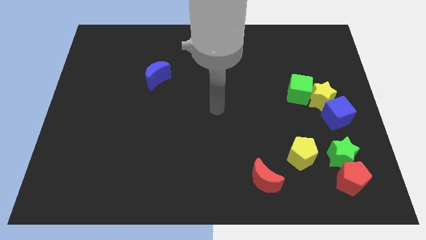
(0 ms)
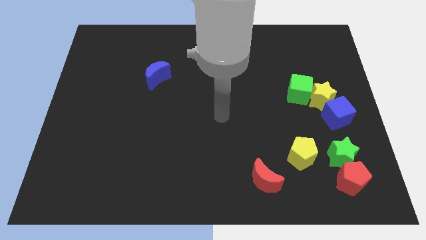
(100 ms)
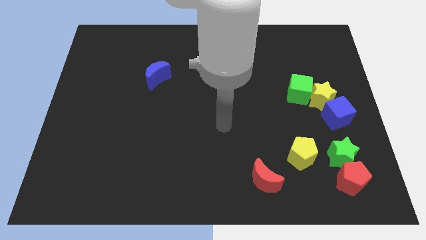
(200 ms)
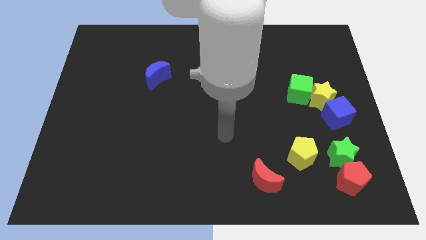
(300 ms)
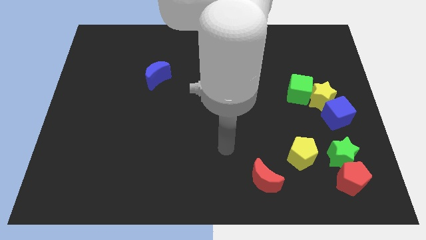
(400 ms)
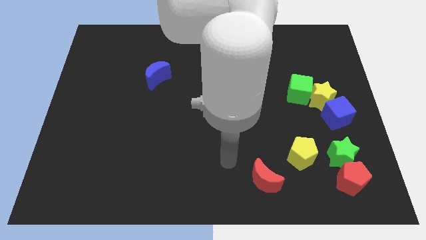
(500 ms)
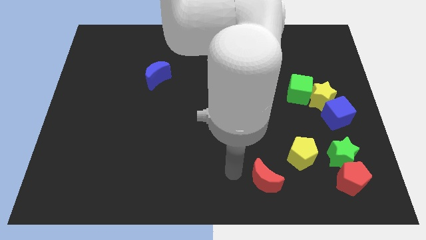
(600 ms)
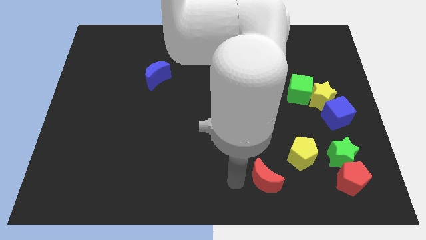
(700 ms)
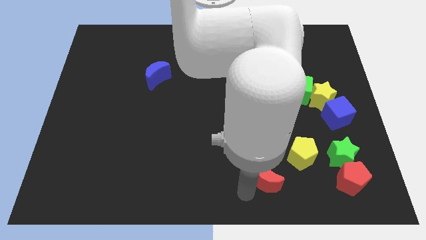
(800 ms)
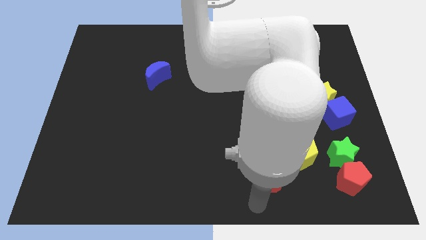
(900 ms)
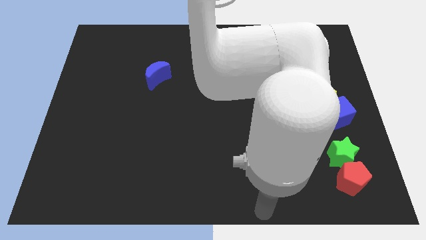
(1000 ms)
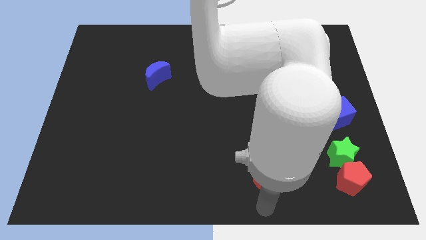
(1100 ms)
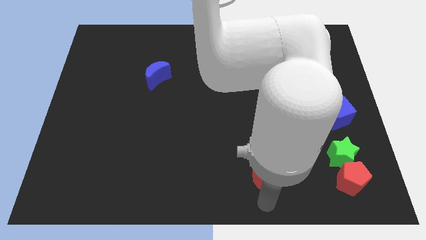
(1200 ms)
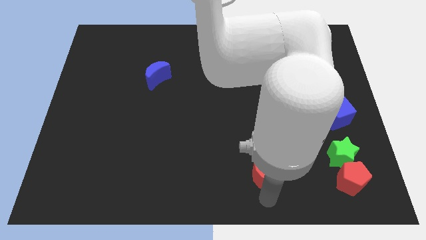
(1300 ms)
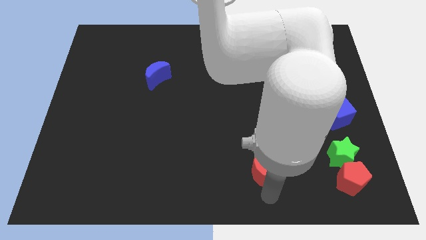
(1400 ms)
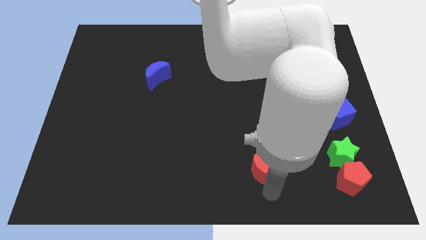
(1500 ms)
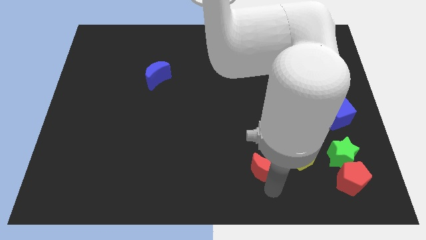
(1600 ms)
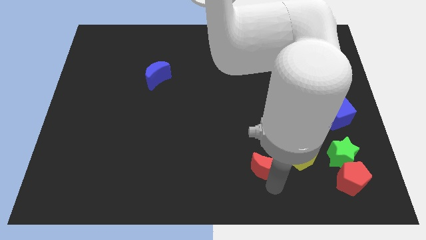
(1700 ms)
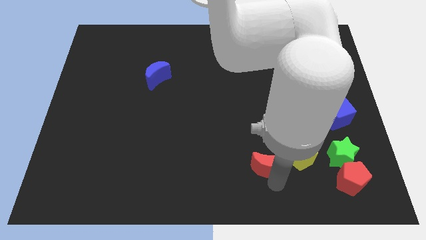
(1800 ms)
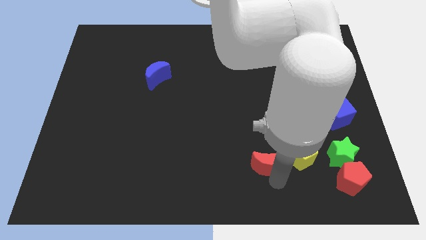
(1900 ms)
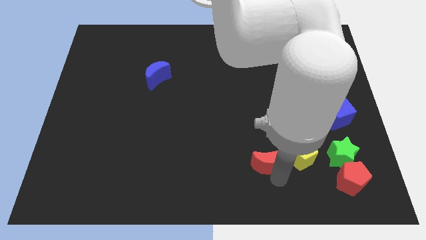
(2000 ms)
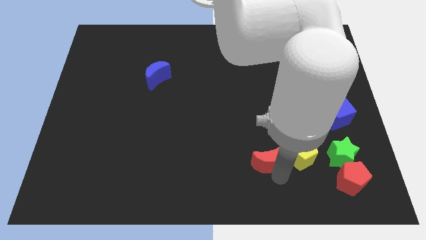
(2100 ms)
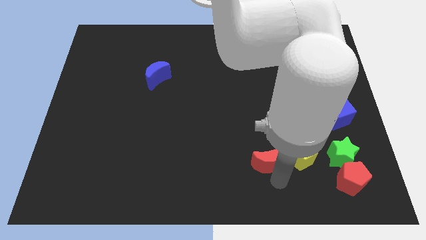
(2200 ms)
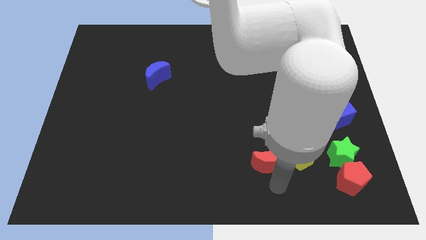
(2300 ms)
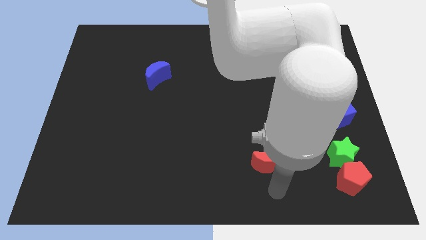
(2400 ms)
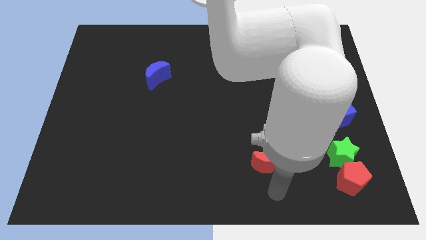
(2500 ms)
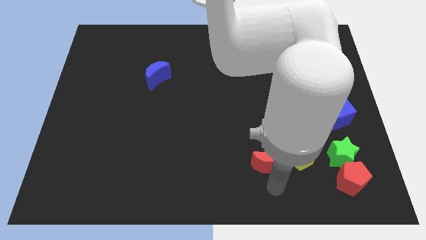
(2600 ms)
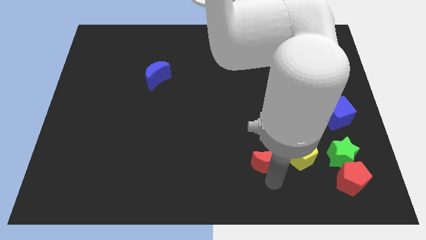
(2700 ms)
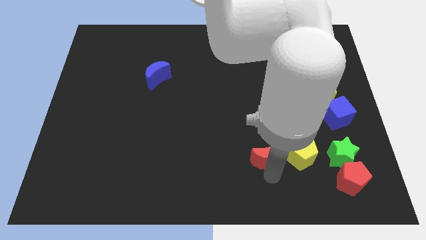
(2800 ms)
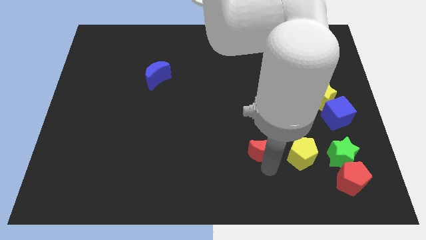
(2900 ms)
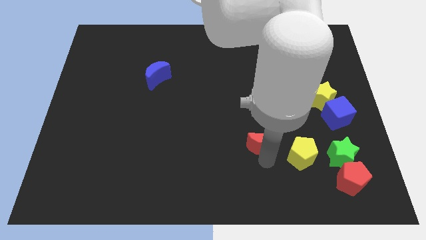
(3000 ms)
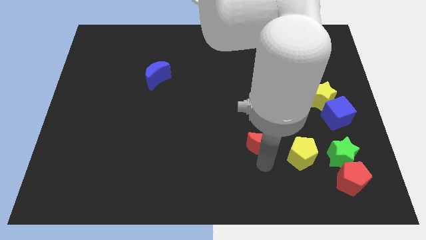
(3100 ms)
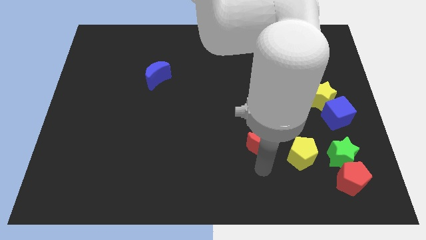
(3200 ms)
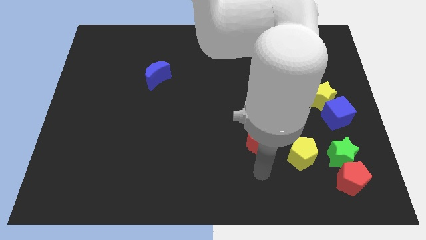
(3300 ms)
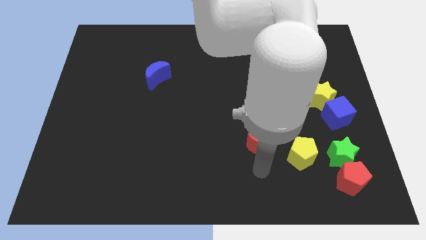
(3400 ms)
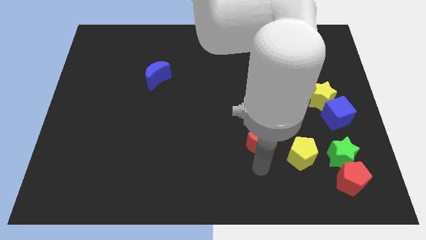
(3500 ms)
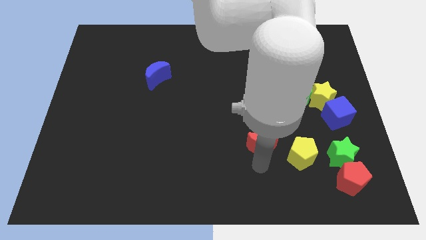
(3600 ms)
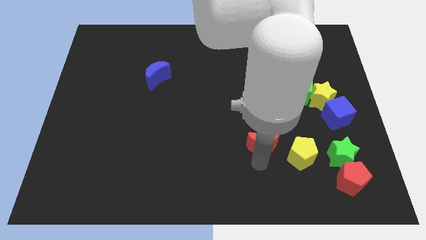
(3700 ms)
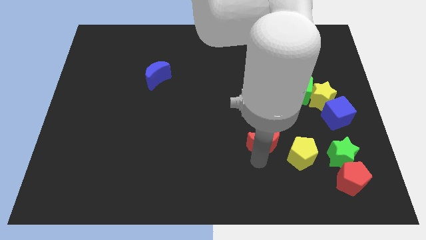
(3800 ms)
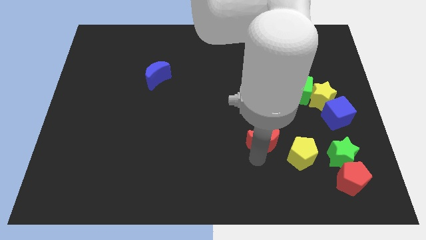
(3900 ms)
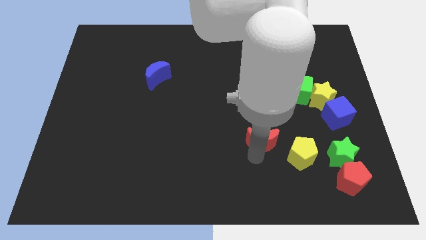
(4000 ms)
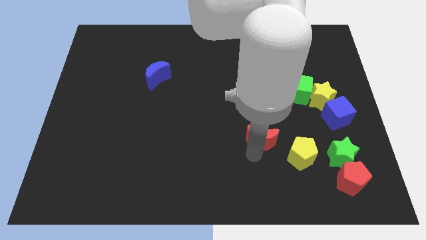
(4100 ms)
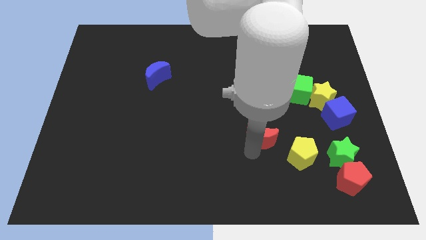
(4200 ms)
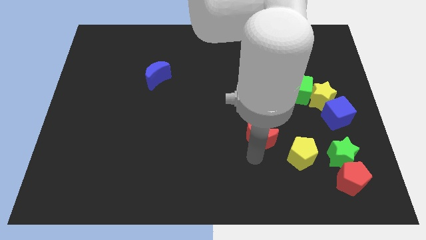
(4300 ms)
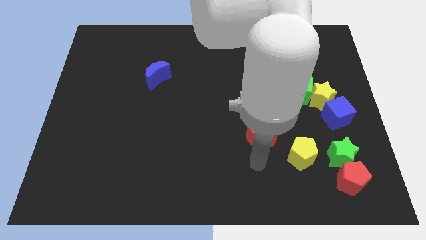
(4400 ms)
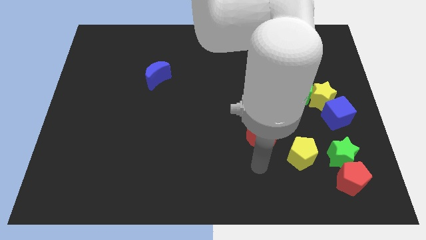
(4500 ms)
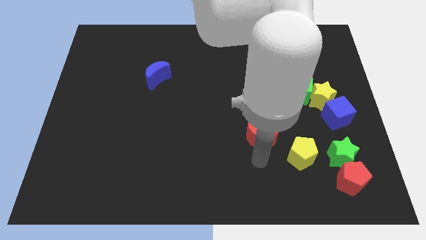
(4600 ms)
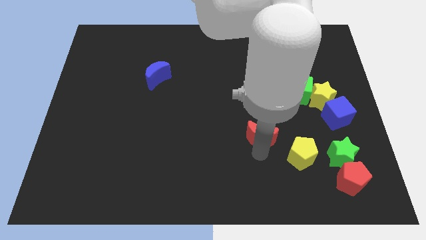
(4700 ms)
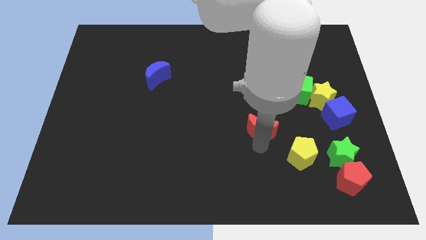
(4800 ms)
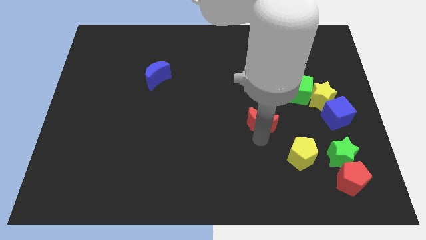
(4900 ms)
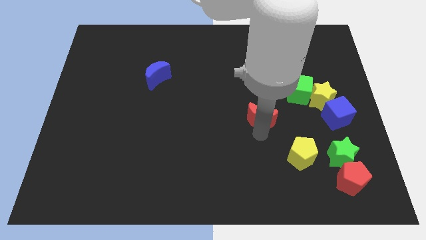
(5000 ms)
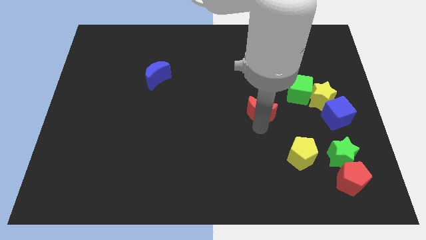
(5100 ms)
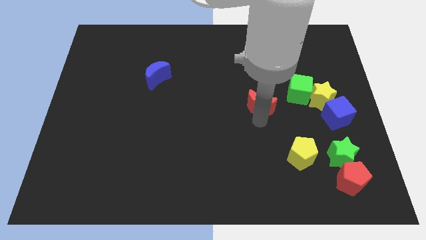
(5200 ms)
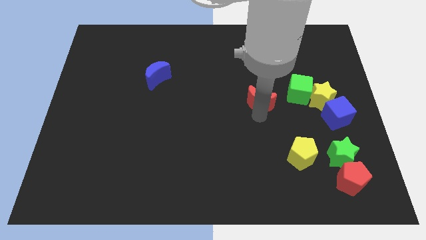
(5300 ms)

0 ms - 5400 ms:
slide the red moon up

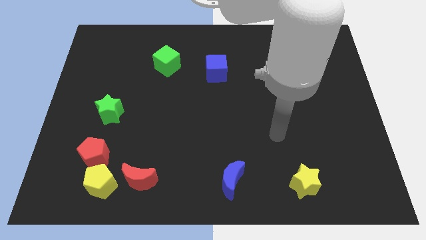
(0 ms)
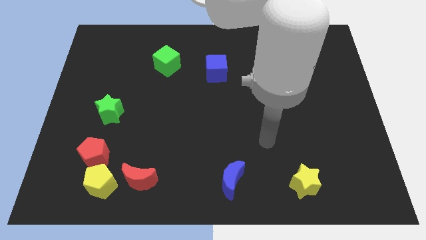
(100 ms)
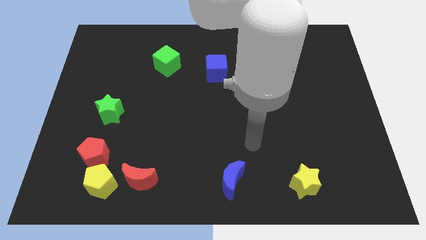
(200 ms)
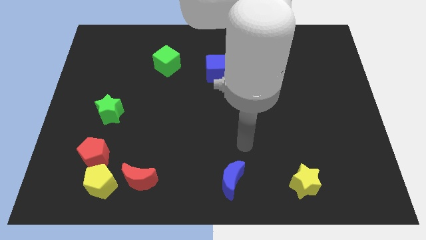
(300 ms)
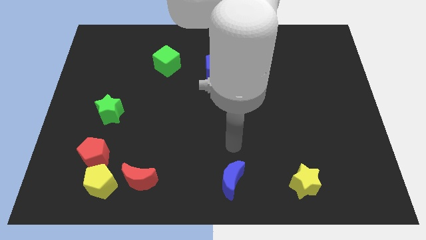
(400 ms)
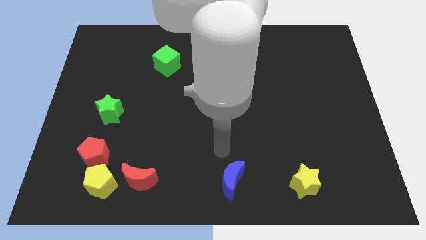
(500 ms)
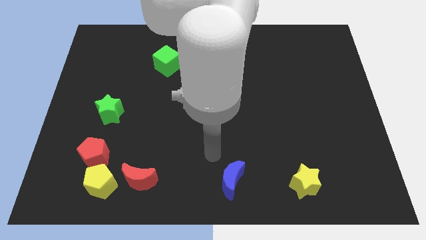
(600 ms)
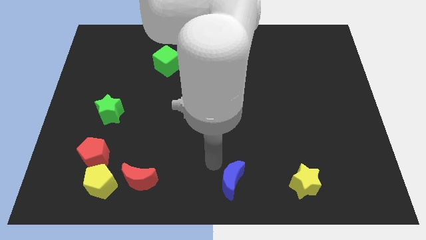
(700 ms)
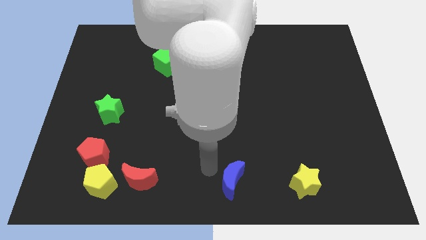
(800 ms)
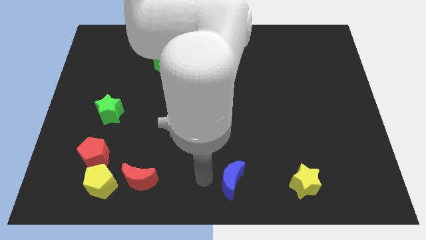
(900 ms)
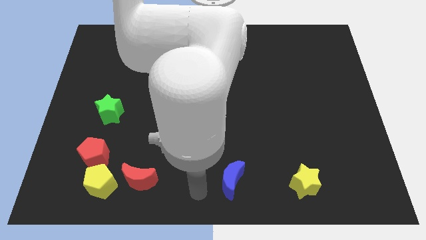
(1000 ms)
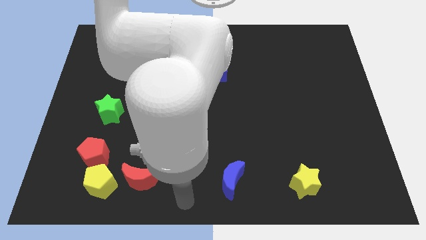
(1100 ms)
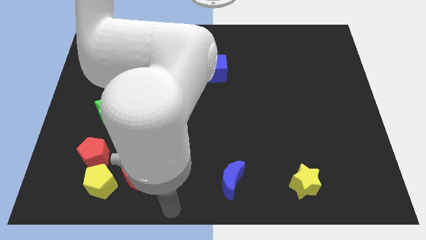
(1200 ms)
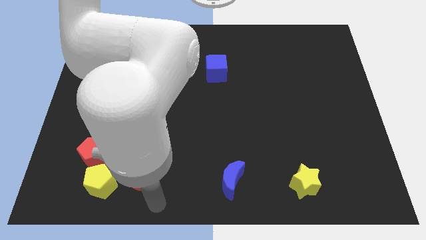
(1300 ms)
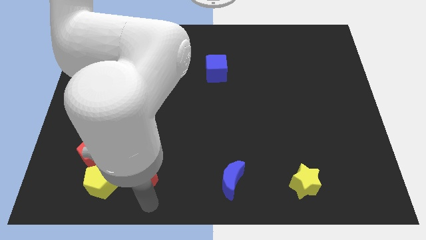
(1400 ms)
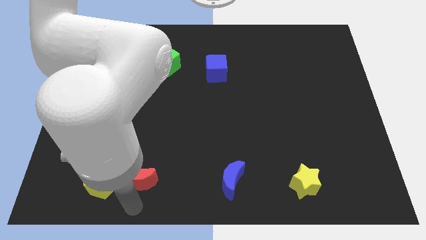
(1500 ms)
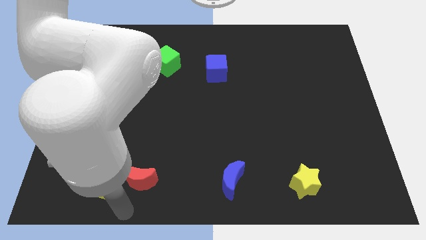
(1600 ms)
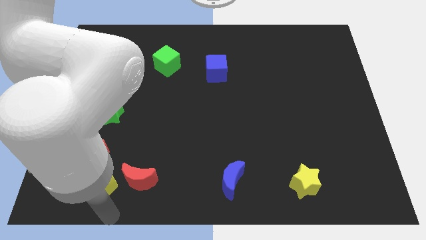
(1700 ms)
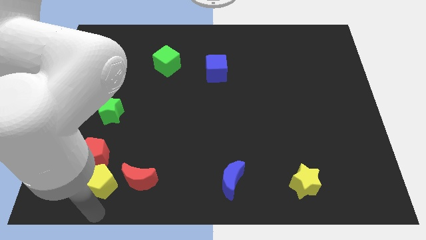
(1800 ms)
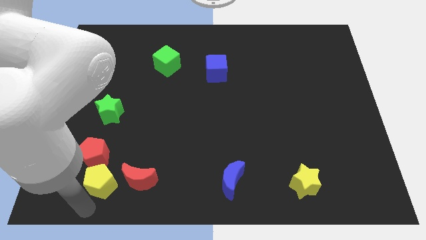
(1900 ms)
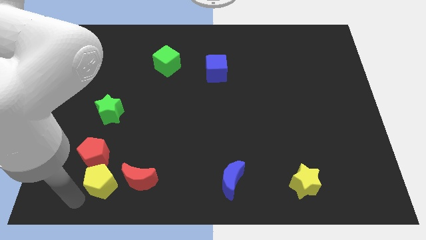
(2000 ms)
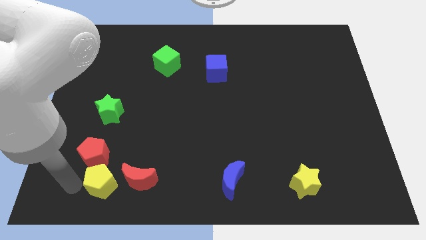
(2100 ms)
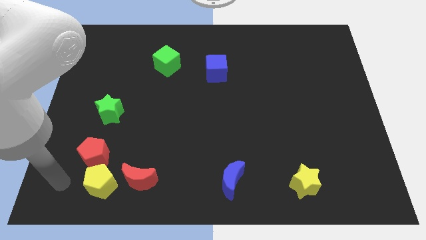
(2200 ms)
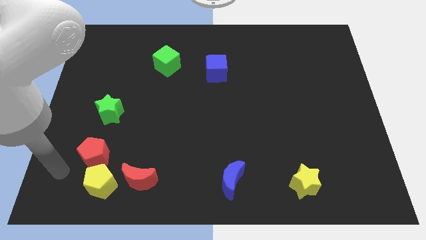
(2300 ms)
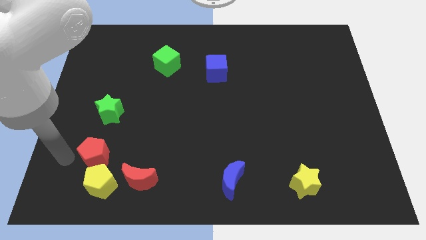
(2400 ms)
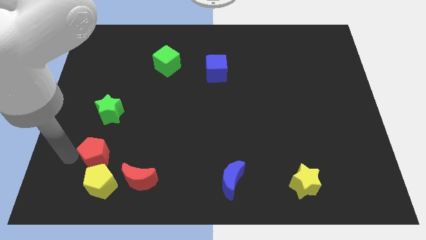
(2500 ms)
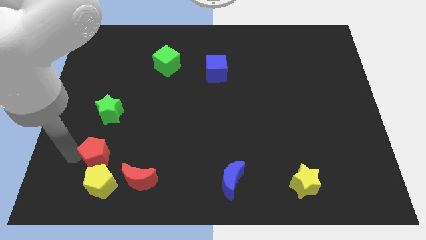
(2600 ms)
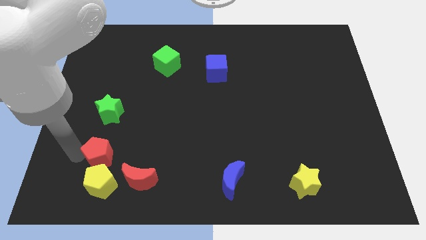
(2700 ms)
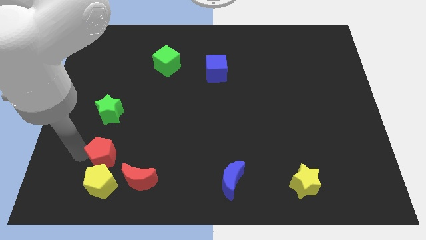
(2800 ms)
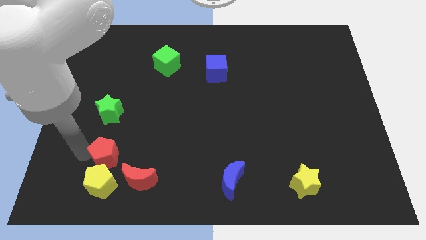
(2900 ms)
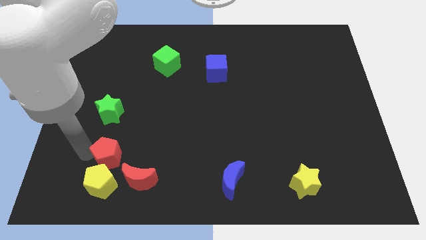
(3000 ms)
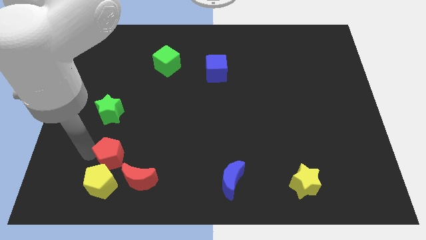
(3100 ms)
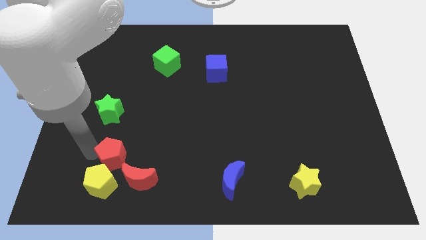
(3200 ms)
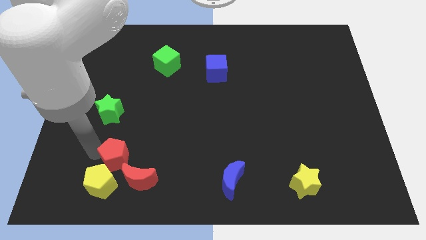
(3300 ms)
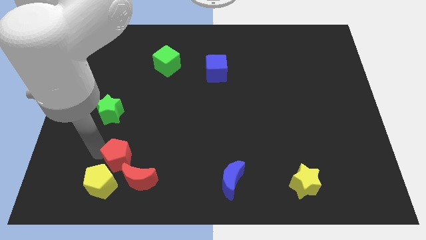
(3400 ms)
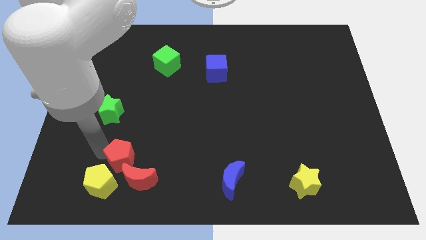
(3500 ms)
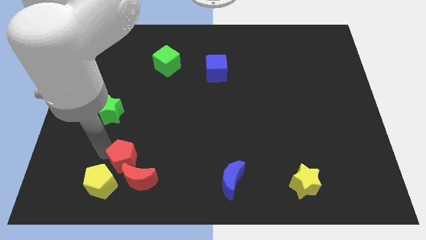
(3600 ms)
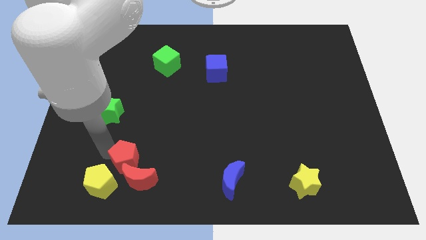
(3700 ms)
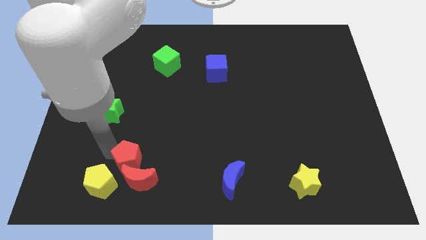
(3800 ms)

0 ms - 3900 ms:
push the red pentagon to the right a bit
